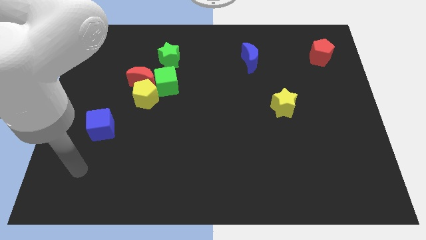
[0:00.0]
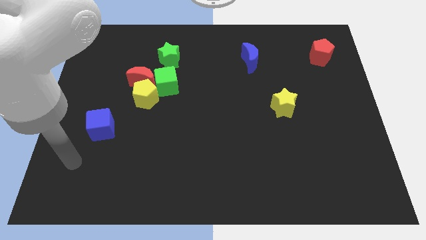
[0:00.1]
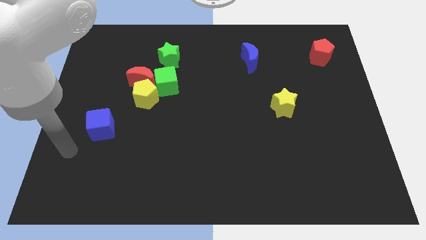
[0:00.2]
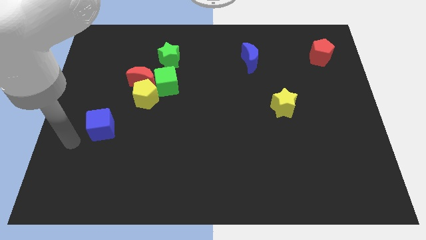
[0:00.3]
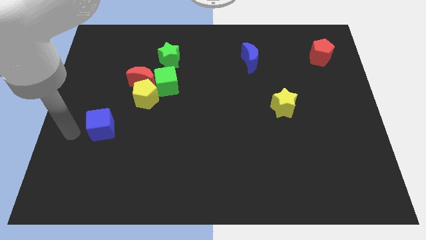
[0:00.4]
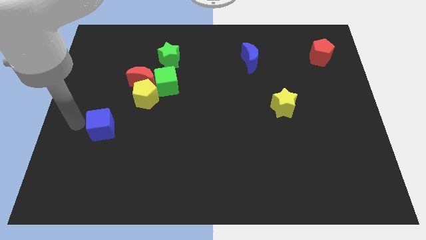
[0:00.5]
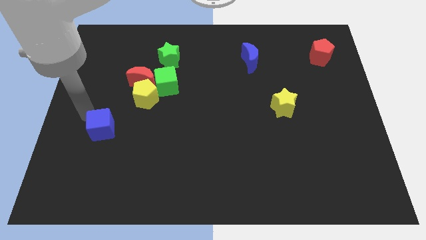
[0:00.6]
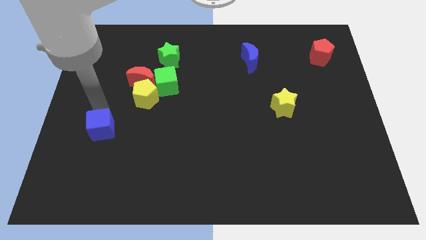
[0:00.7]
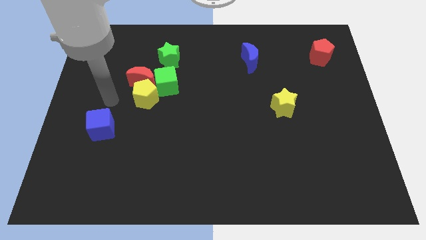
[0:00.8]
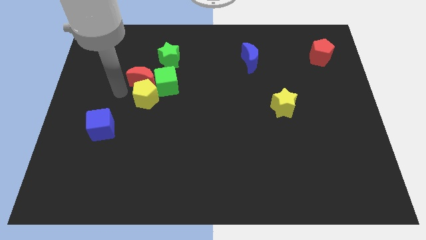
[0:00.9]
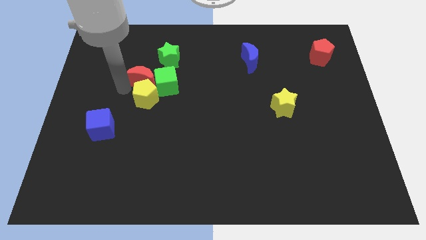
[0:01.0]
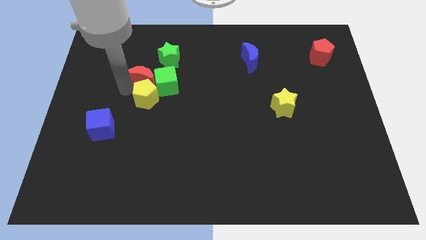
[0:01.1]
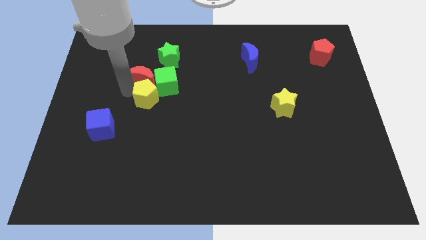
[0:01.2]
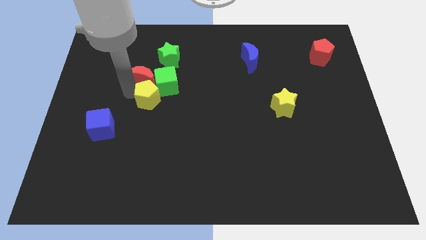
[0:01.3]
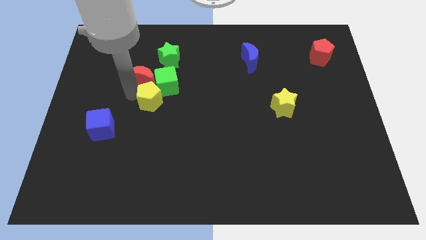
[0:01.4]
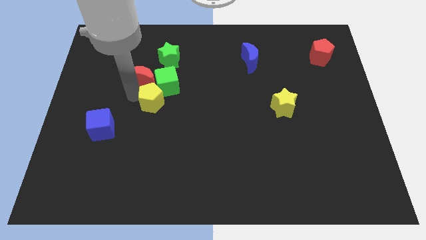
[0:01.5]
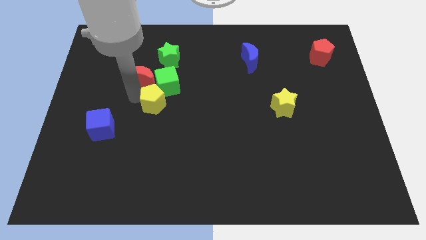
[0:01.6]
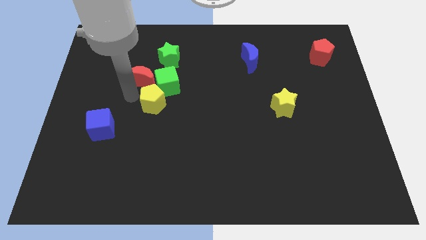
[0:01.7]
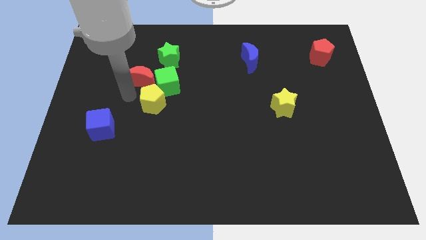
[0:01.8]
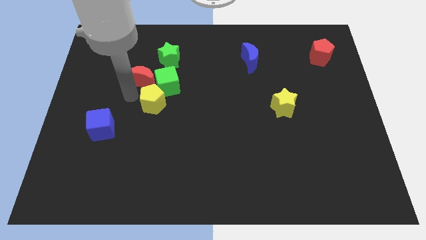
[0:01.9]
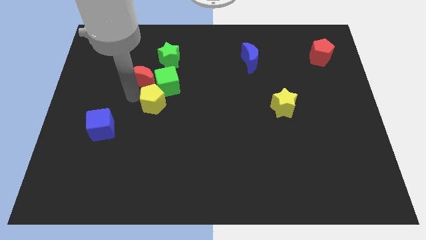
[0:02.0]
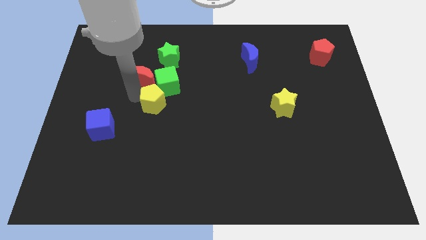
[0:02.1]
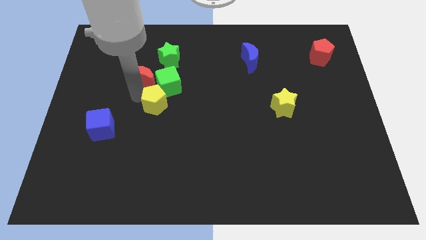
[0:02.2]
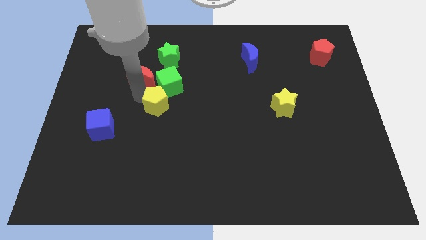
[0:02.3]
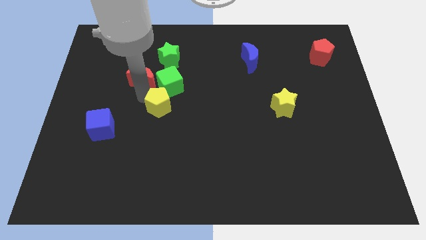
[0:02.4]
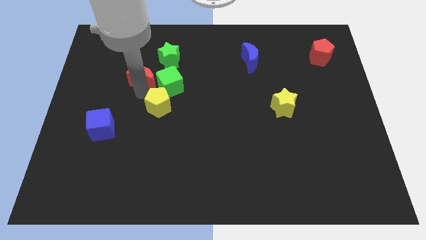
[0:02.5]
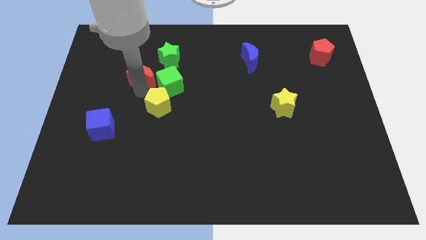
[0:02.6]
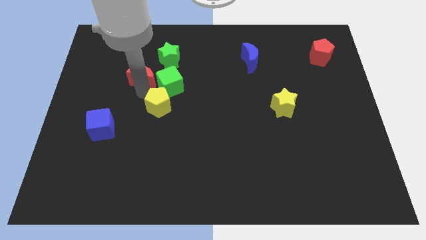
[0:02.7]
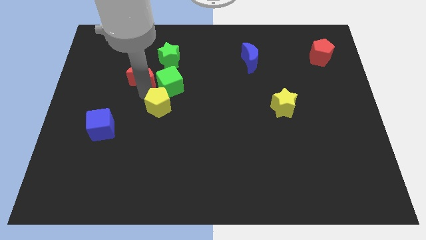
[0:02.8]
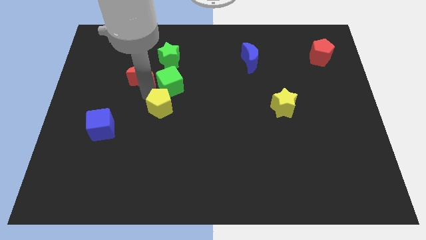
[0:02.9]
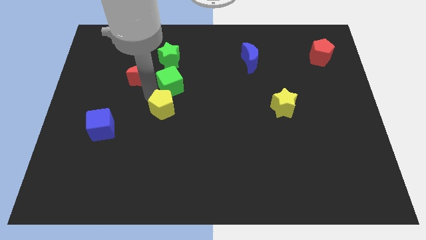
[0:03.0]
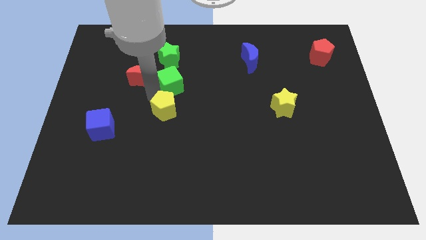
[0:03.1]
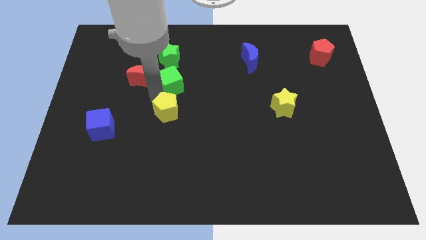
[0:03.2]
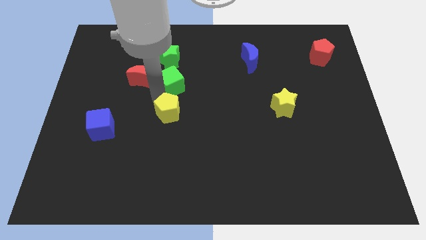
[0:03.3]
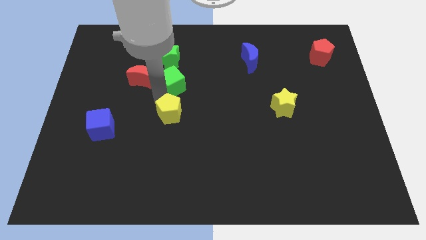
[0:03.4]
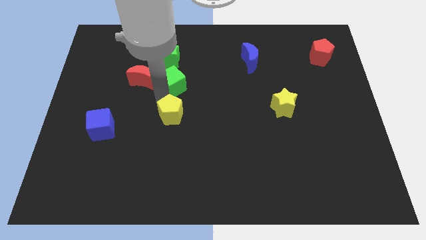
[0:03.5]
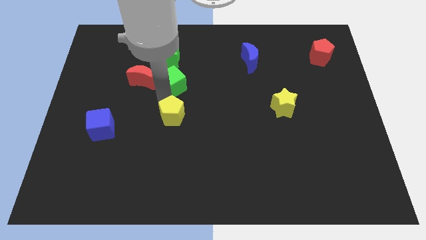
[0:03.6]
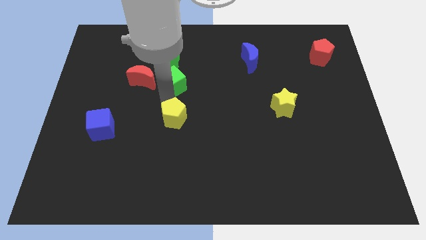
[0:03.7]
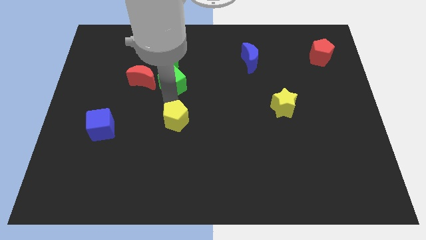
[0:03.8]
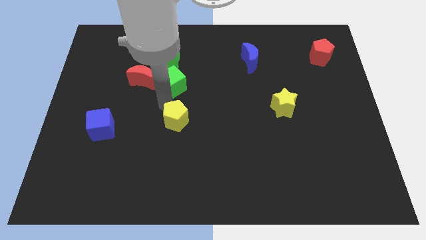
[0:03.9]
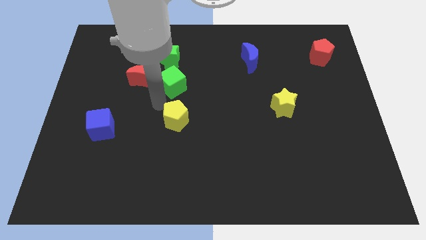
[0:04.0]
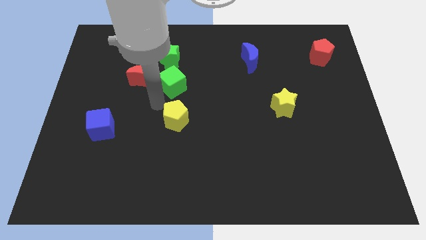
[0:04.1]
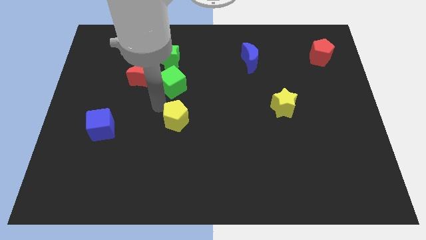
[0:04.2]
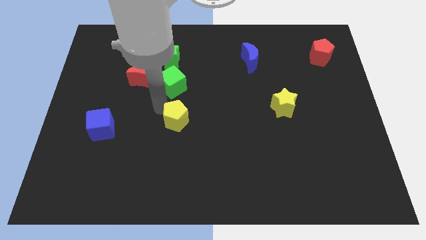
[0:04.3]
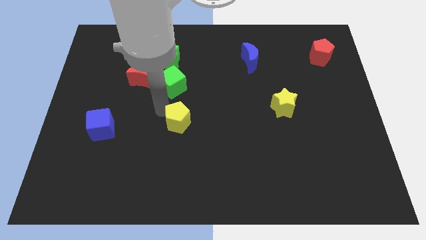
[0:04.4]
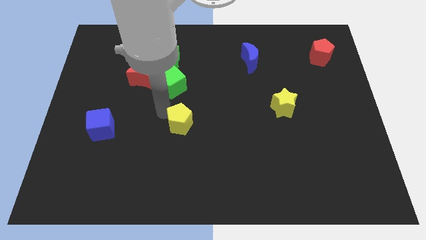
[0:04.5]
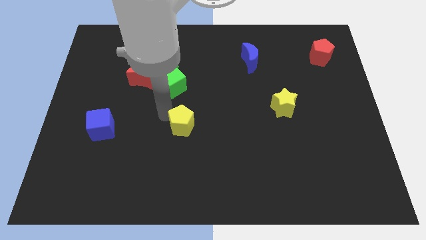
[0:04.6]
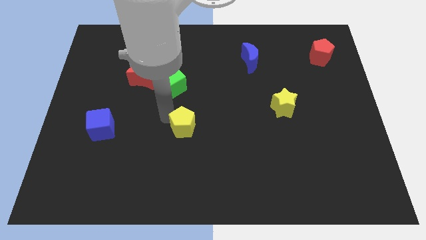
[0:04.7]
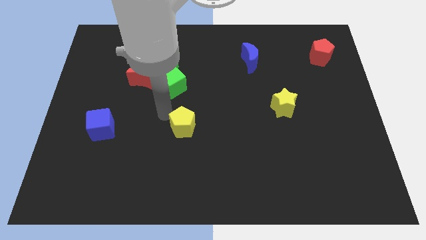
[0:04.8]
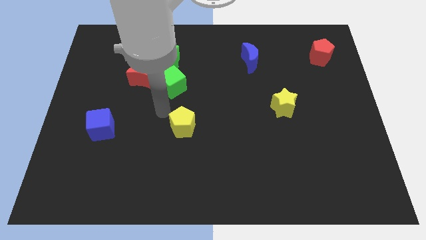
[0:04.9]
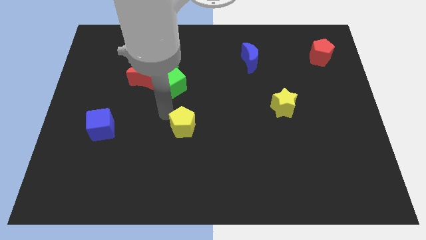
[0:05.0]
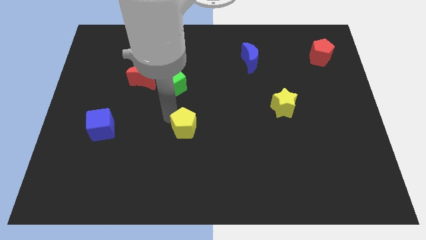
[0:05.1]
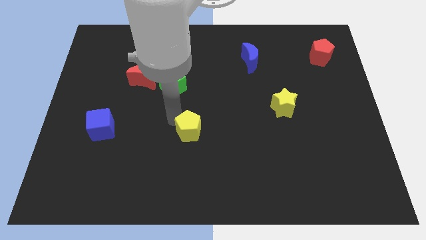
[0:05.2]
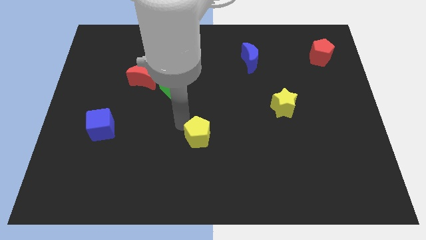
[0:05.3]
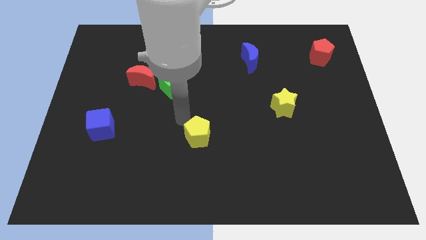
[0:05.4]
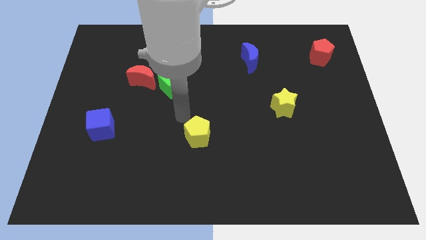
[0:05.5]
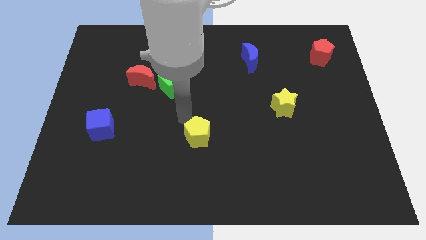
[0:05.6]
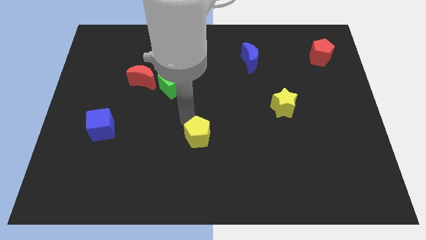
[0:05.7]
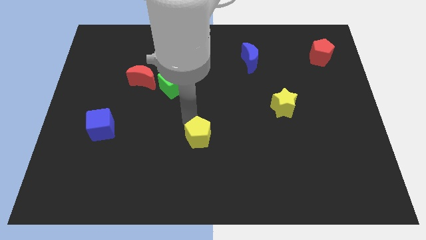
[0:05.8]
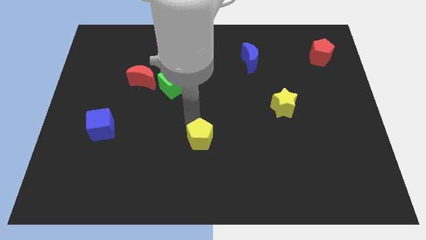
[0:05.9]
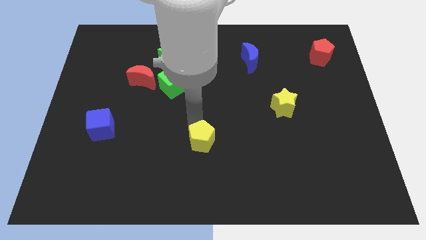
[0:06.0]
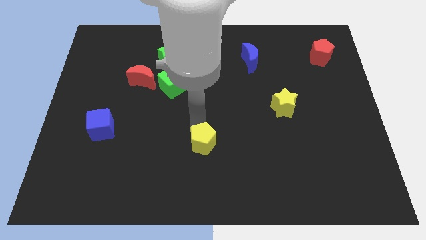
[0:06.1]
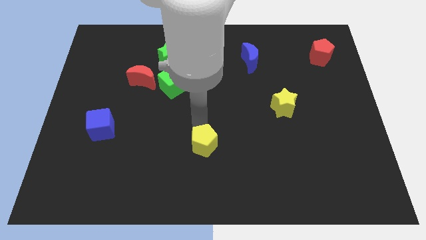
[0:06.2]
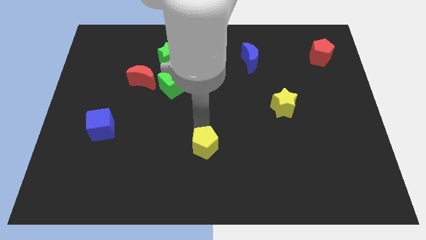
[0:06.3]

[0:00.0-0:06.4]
slide the yellow pentagon diagonally downwards and to the right

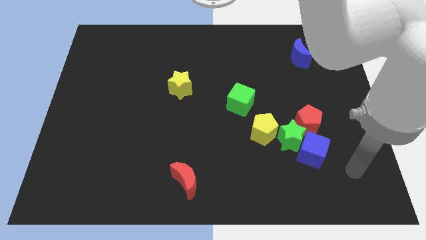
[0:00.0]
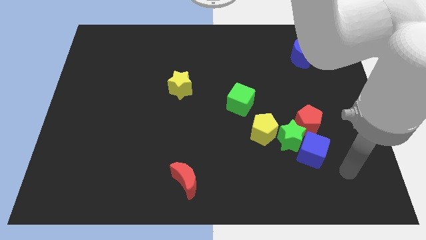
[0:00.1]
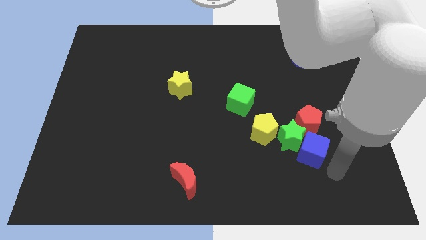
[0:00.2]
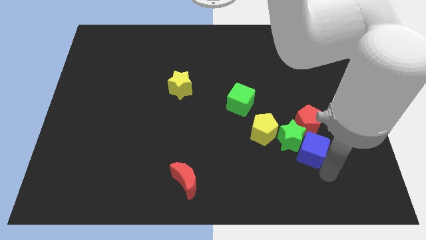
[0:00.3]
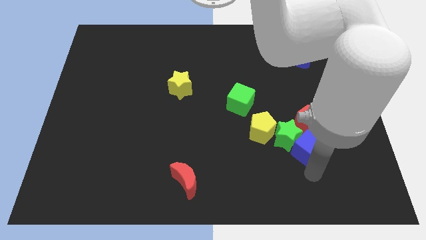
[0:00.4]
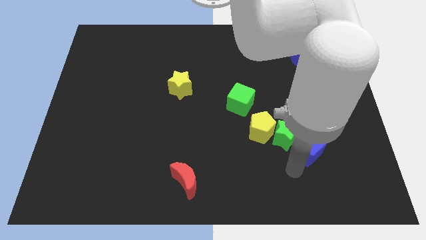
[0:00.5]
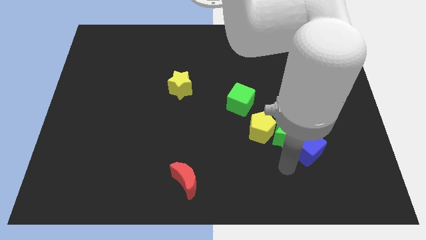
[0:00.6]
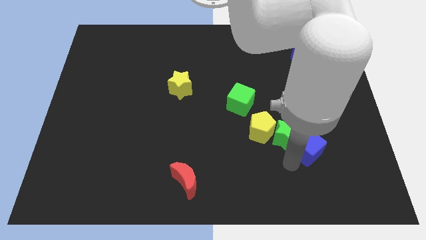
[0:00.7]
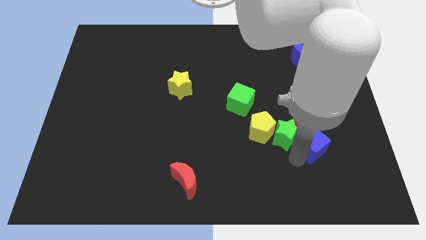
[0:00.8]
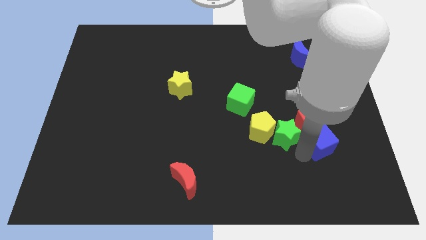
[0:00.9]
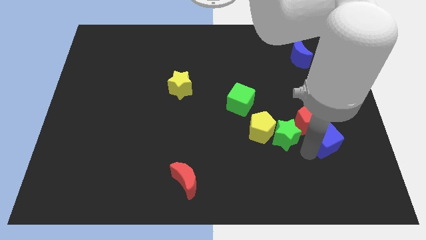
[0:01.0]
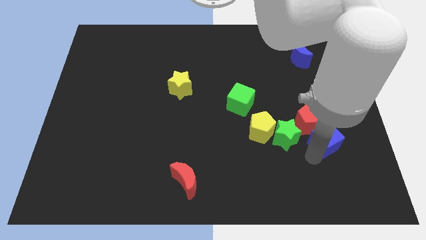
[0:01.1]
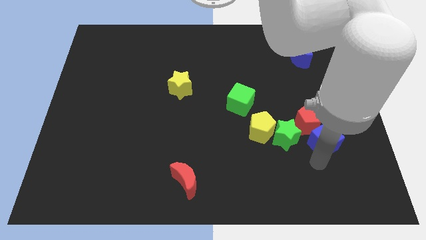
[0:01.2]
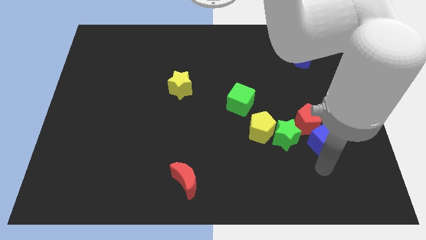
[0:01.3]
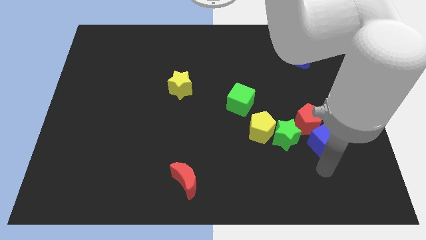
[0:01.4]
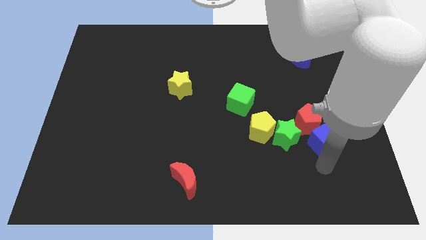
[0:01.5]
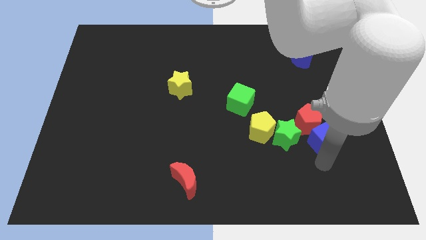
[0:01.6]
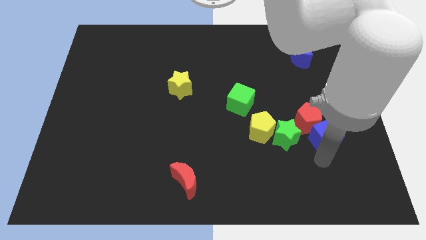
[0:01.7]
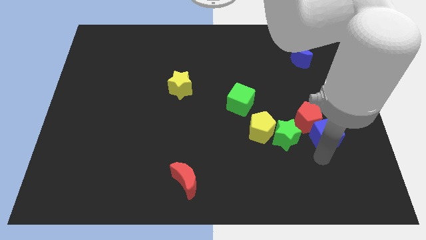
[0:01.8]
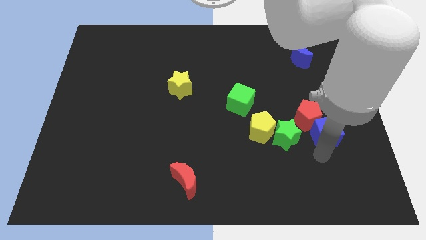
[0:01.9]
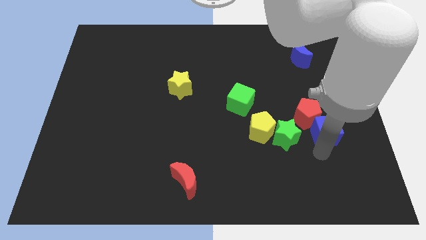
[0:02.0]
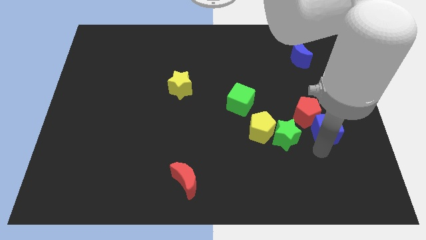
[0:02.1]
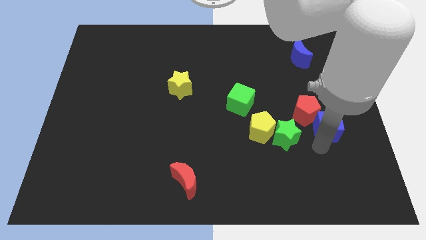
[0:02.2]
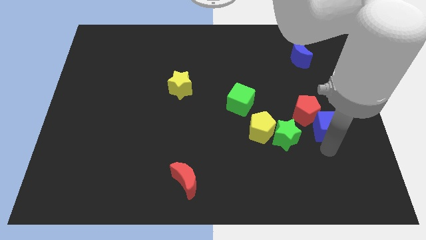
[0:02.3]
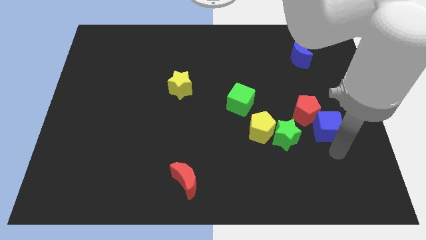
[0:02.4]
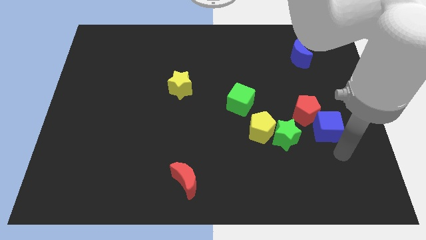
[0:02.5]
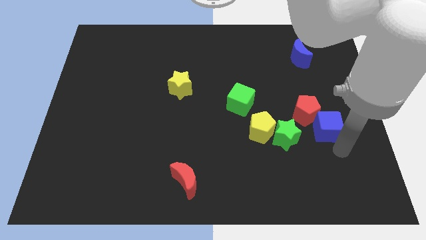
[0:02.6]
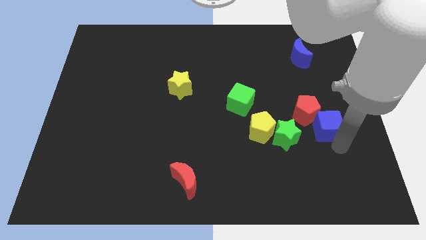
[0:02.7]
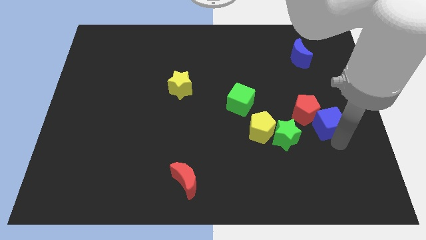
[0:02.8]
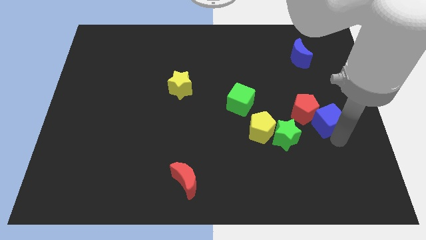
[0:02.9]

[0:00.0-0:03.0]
move the blue cube a little upwards
